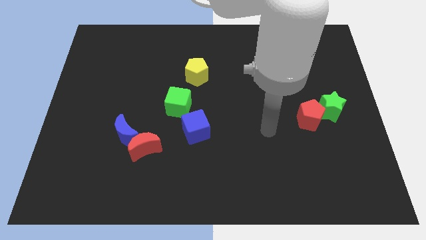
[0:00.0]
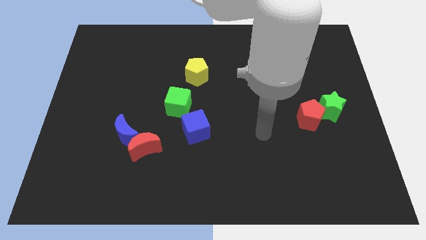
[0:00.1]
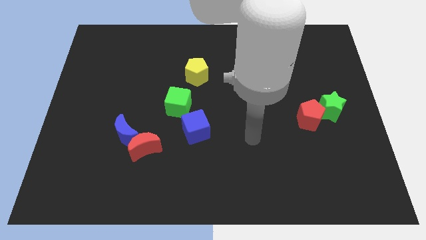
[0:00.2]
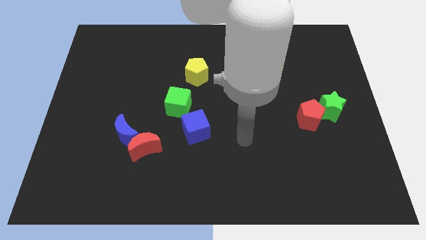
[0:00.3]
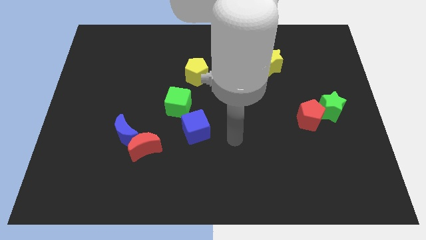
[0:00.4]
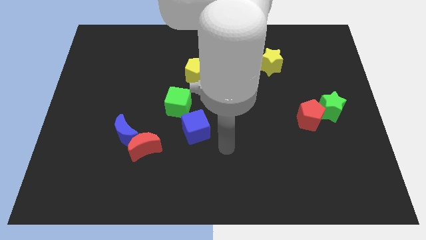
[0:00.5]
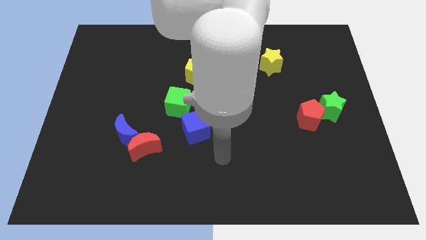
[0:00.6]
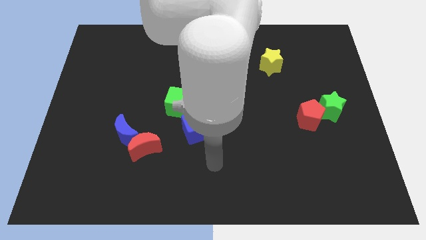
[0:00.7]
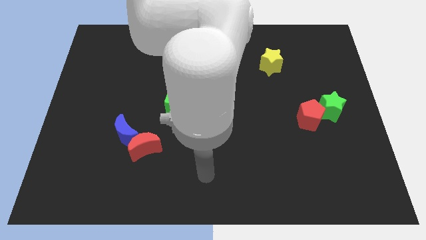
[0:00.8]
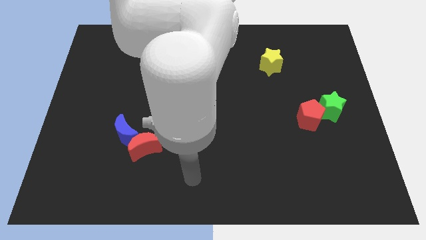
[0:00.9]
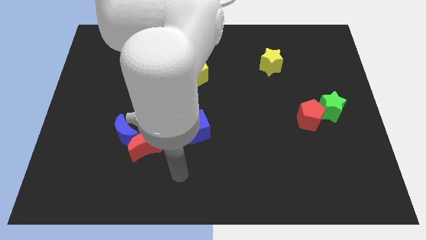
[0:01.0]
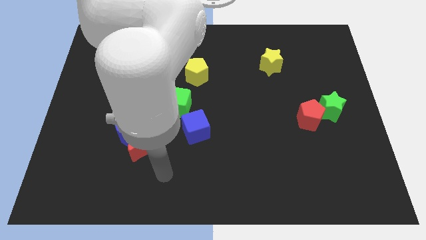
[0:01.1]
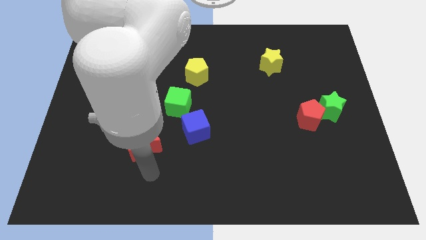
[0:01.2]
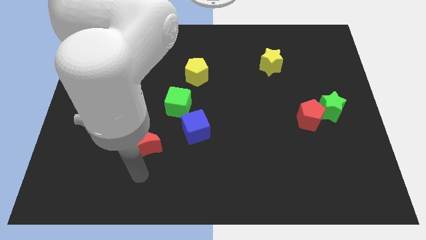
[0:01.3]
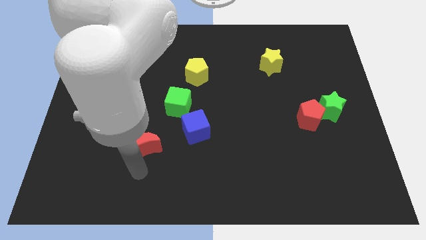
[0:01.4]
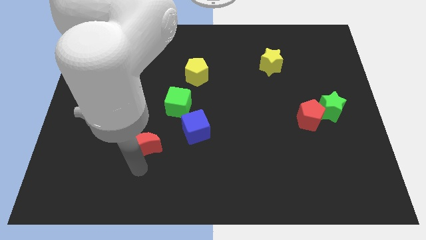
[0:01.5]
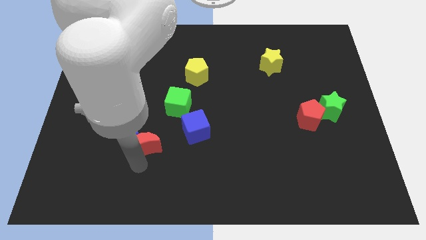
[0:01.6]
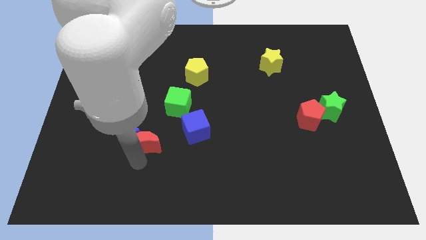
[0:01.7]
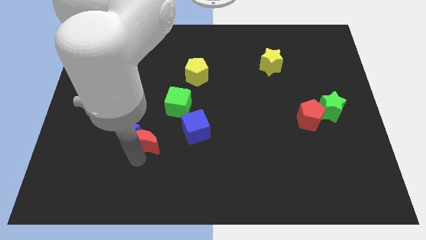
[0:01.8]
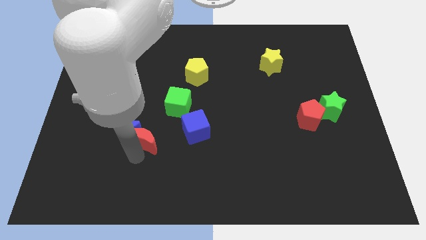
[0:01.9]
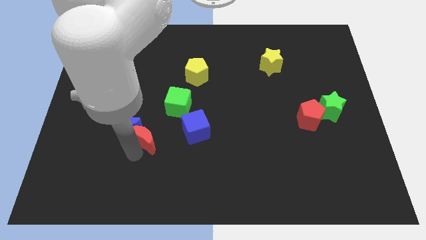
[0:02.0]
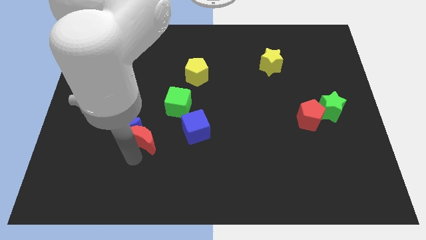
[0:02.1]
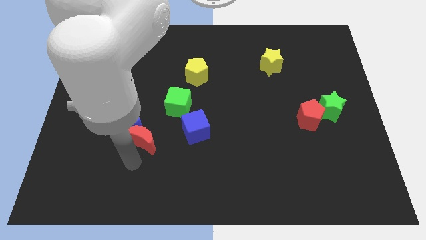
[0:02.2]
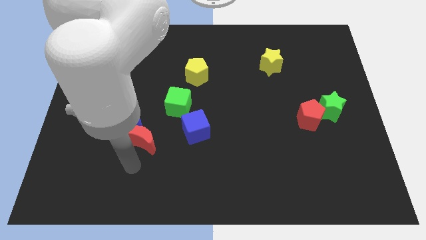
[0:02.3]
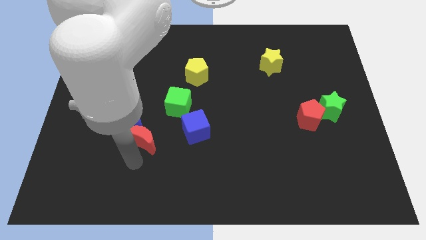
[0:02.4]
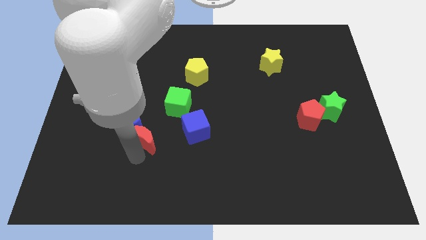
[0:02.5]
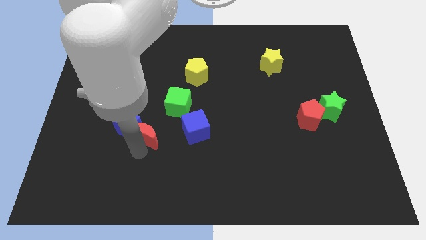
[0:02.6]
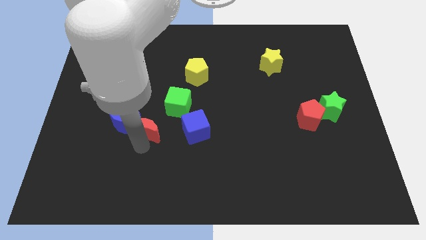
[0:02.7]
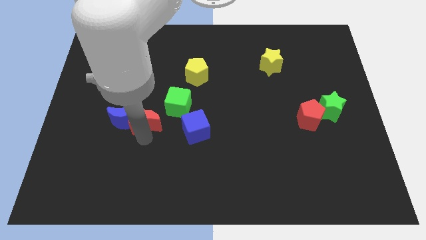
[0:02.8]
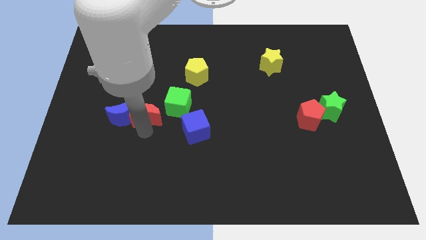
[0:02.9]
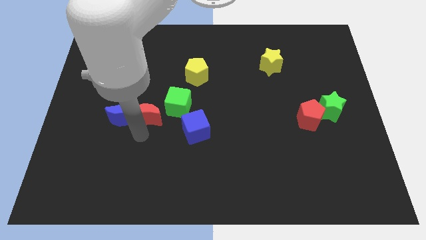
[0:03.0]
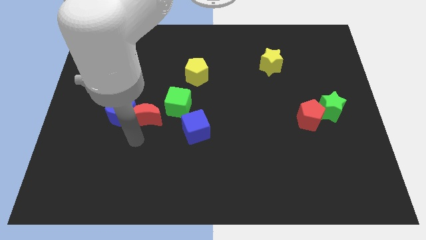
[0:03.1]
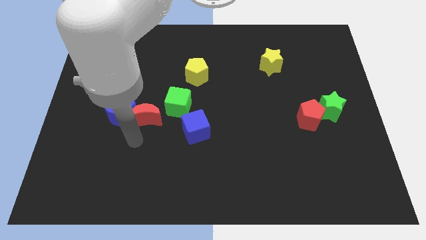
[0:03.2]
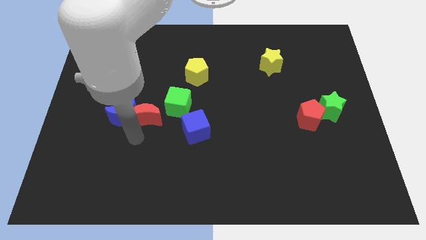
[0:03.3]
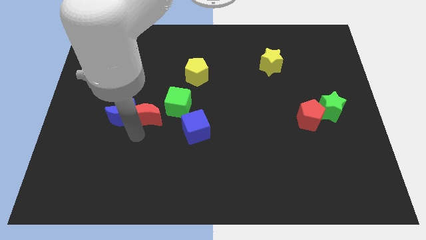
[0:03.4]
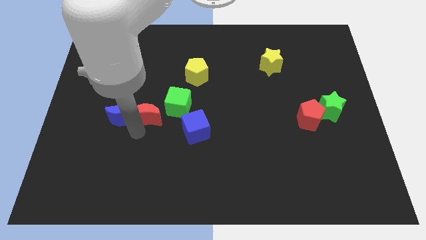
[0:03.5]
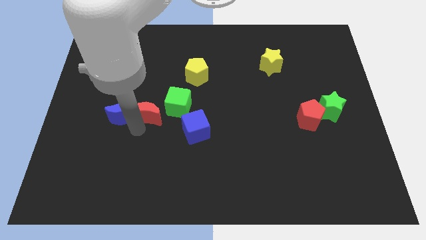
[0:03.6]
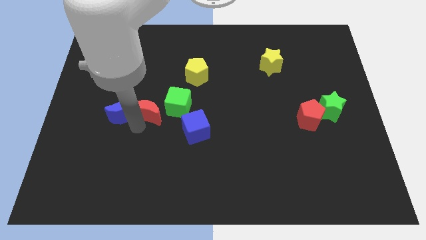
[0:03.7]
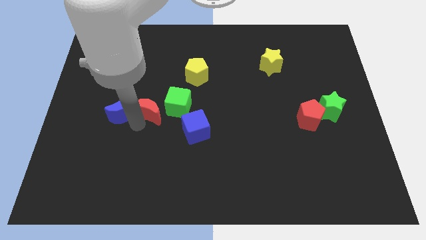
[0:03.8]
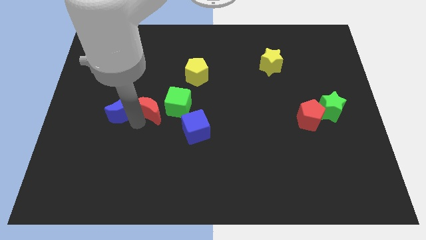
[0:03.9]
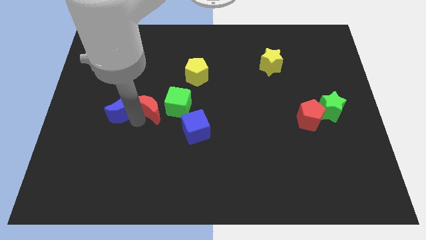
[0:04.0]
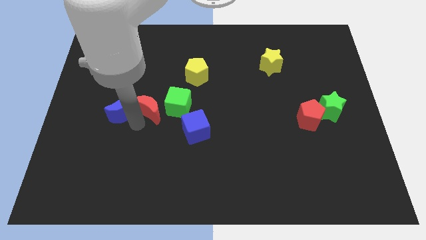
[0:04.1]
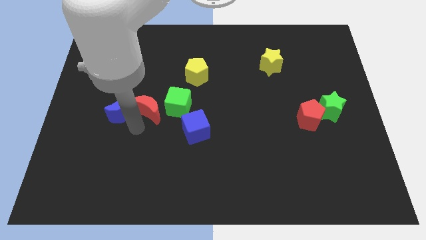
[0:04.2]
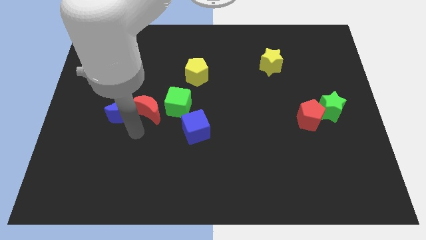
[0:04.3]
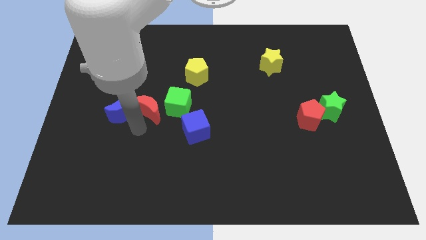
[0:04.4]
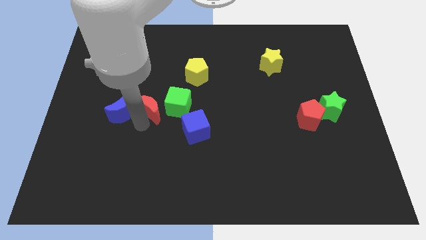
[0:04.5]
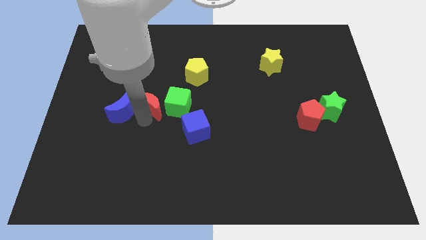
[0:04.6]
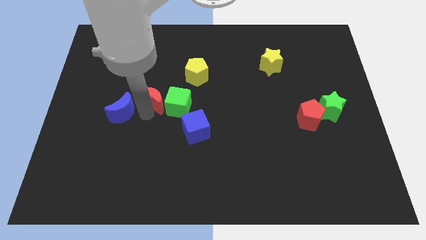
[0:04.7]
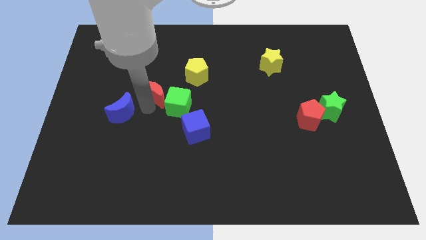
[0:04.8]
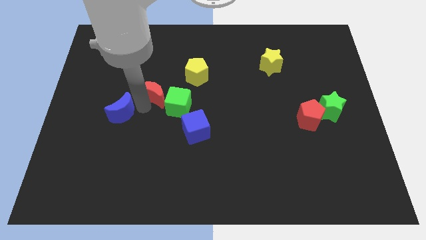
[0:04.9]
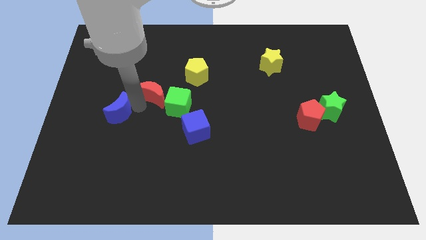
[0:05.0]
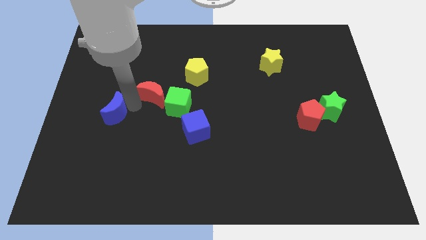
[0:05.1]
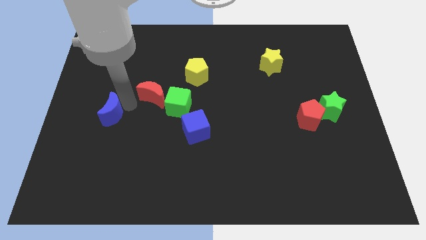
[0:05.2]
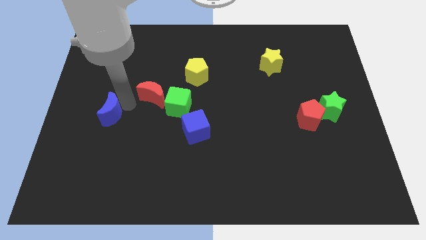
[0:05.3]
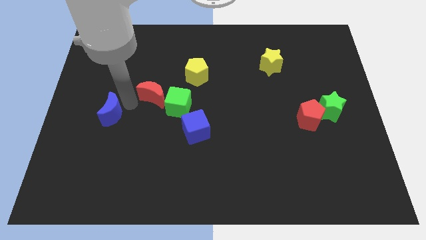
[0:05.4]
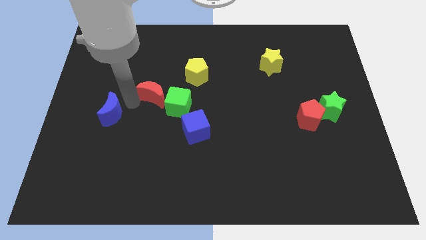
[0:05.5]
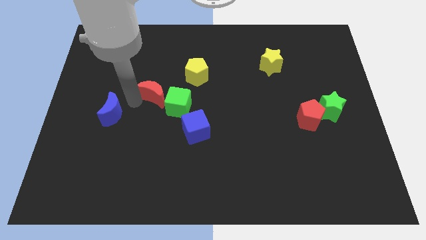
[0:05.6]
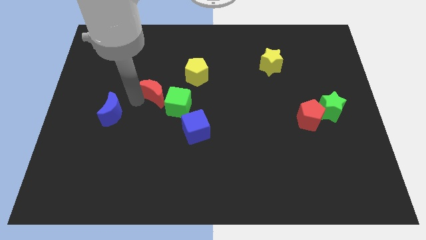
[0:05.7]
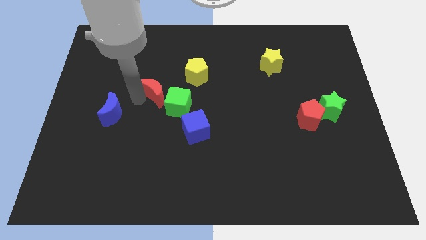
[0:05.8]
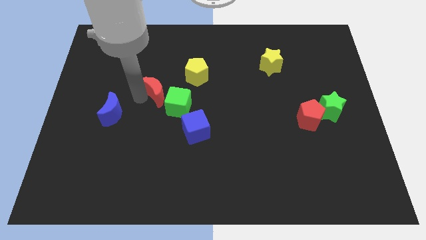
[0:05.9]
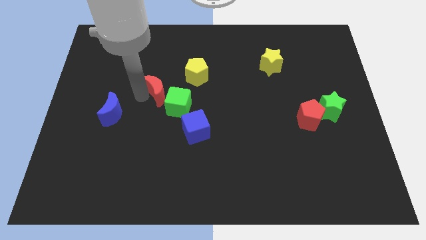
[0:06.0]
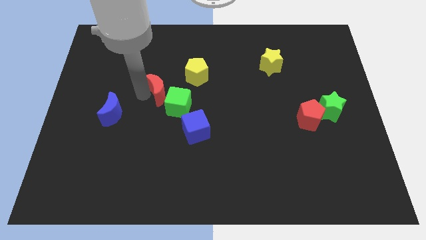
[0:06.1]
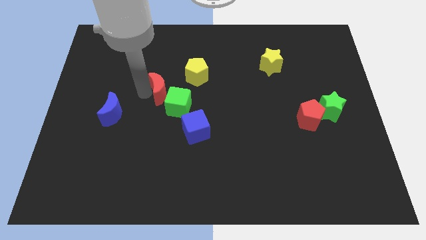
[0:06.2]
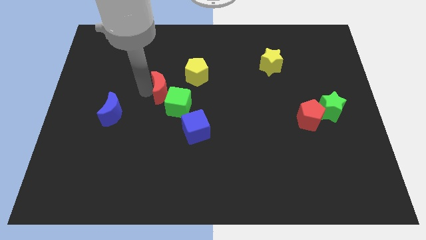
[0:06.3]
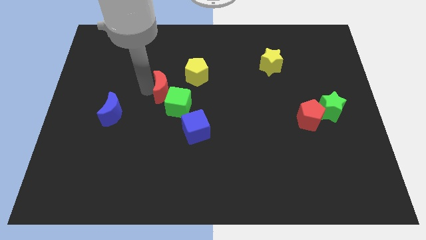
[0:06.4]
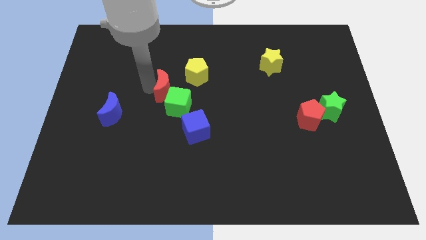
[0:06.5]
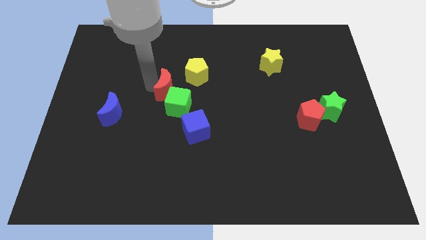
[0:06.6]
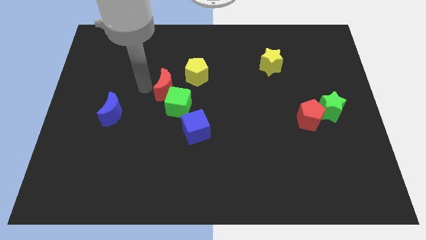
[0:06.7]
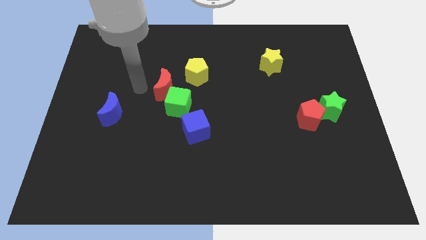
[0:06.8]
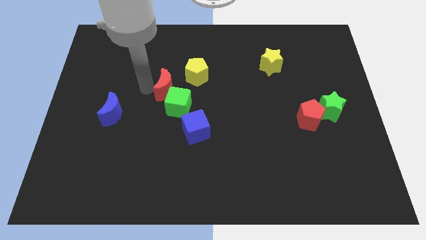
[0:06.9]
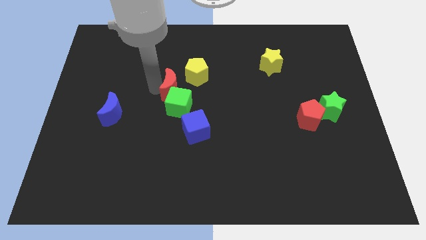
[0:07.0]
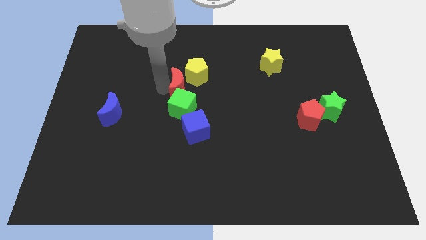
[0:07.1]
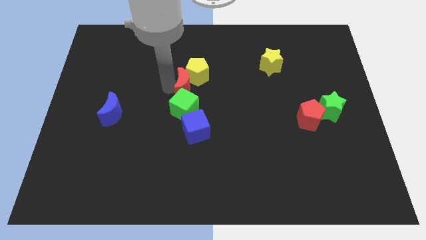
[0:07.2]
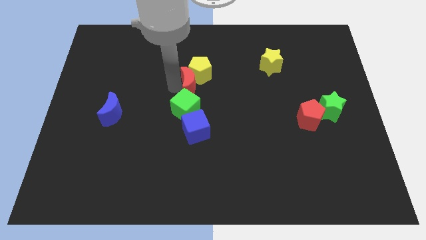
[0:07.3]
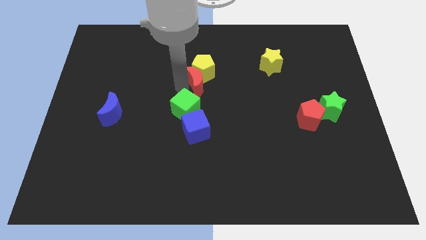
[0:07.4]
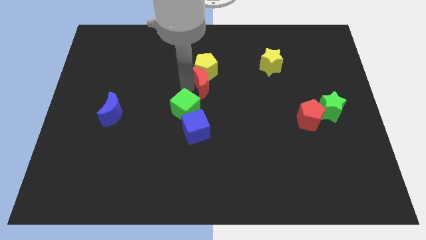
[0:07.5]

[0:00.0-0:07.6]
push the red moon up and then to the right

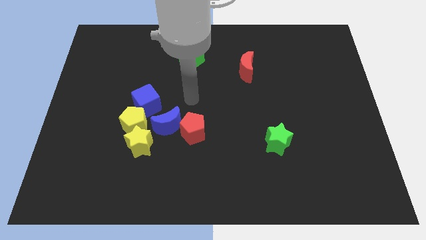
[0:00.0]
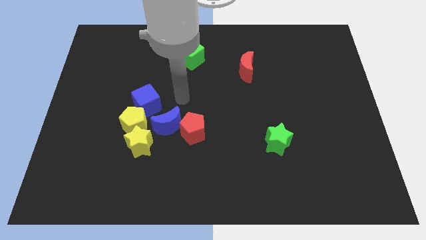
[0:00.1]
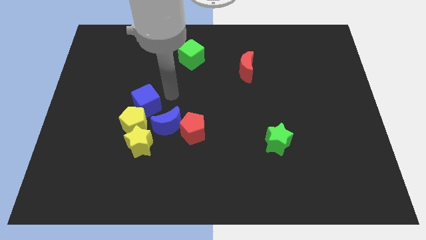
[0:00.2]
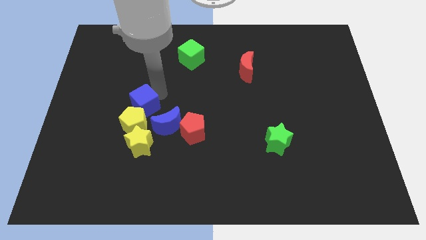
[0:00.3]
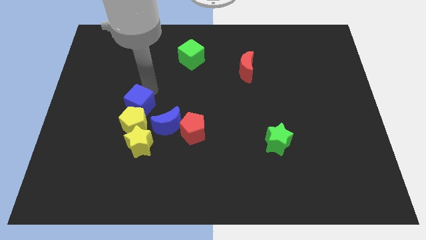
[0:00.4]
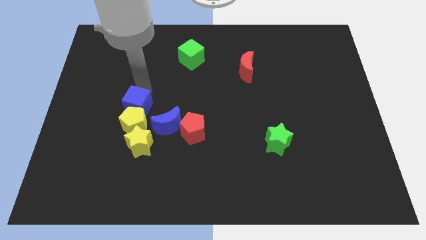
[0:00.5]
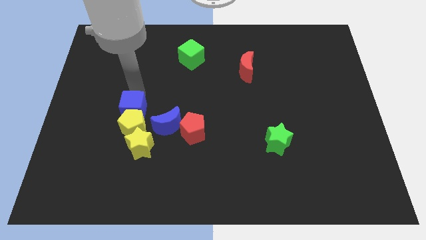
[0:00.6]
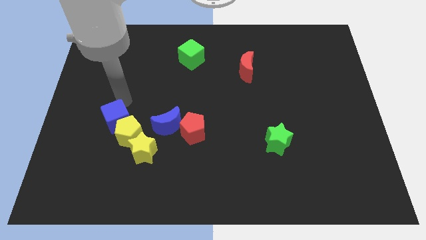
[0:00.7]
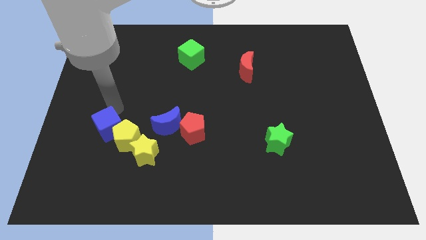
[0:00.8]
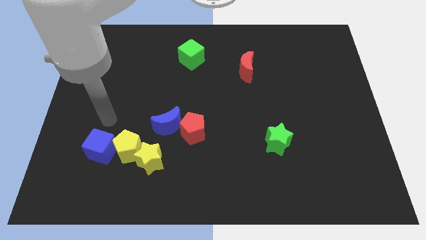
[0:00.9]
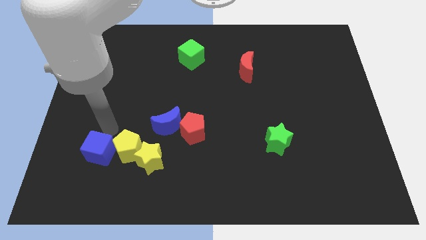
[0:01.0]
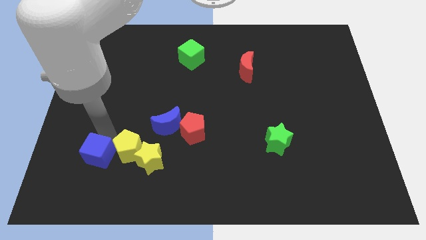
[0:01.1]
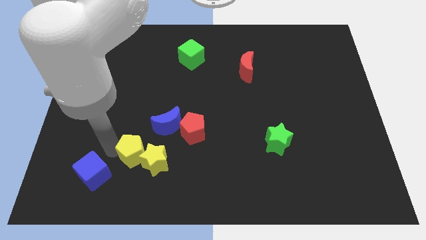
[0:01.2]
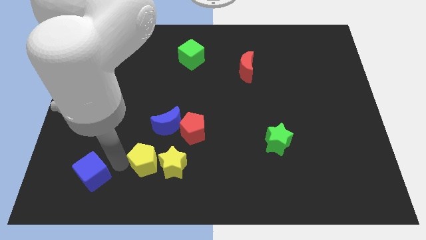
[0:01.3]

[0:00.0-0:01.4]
move the yellow star to the right a bit
